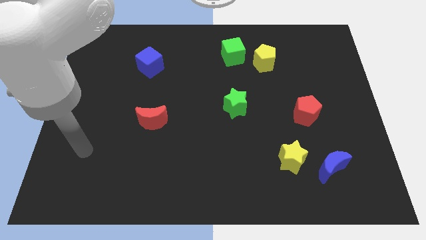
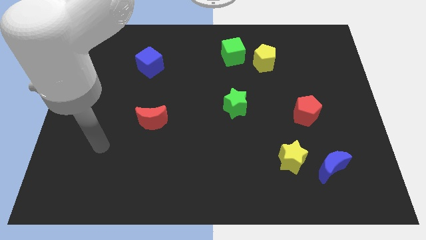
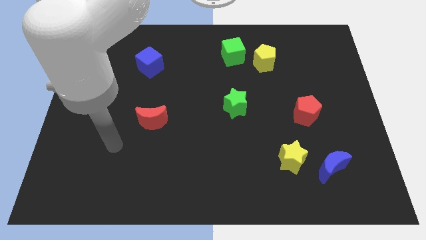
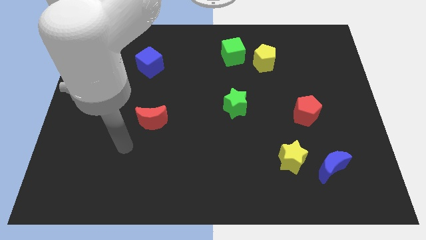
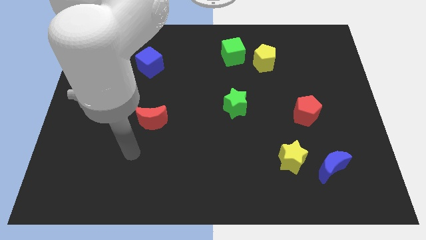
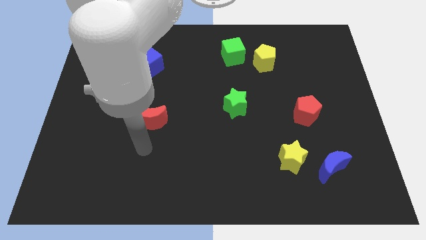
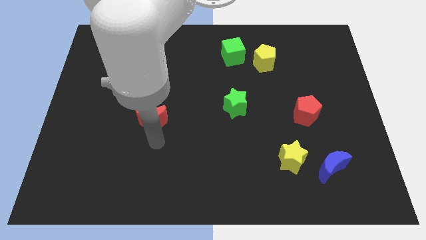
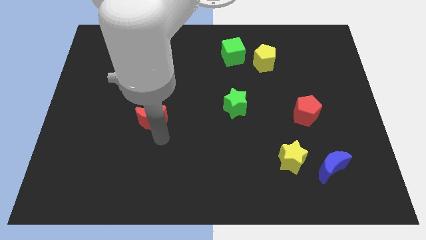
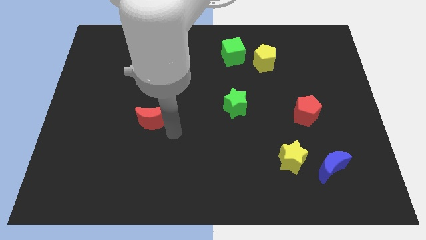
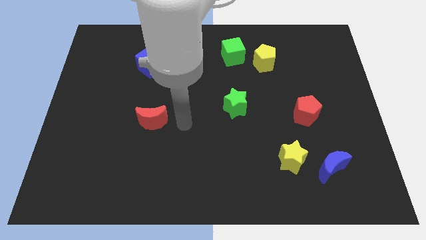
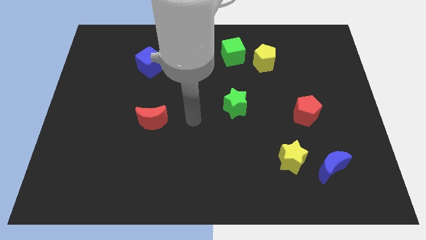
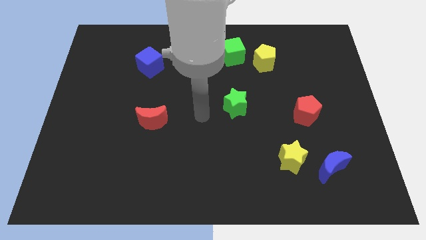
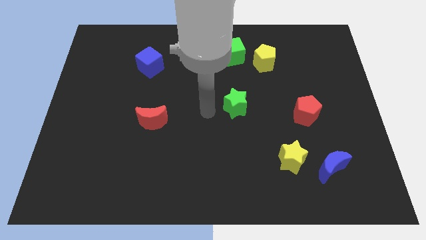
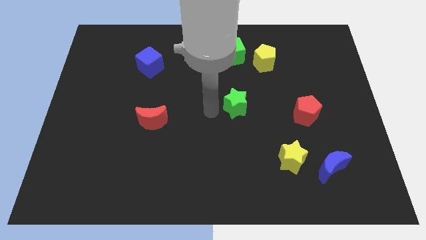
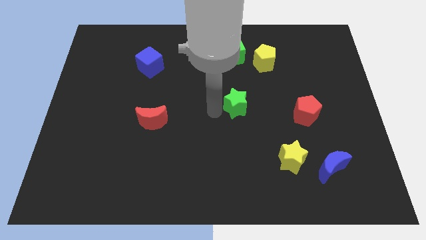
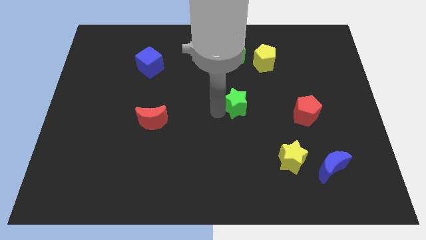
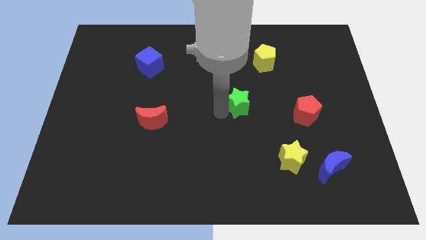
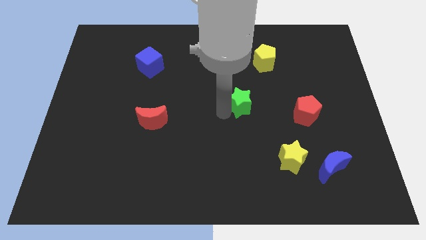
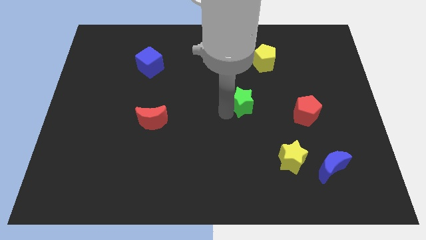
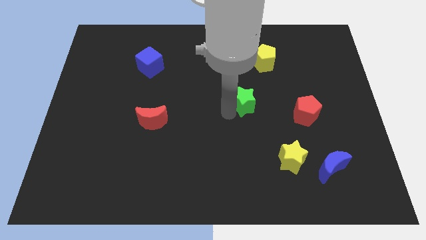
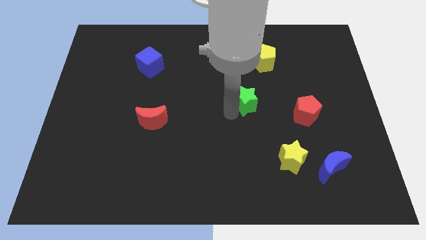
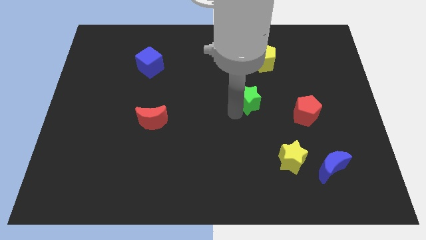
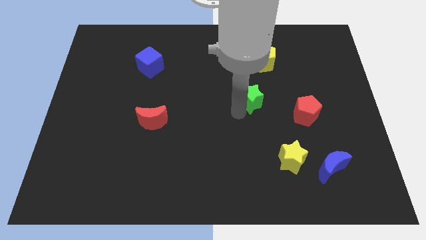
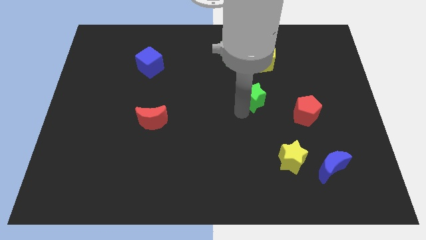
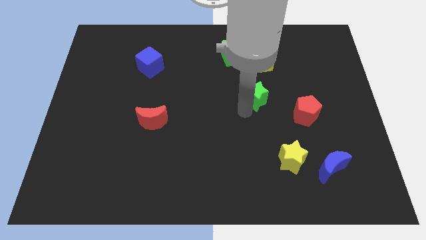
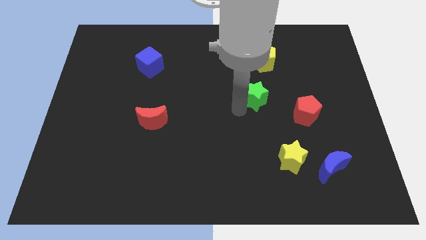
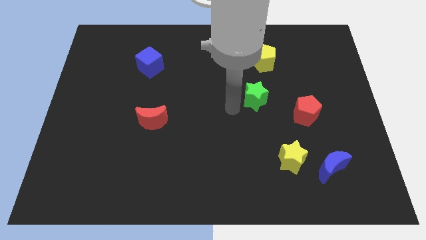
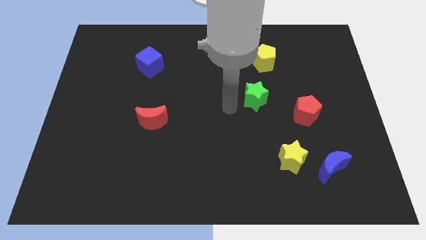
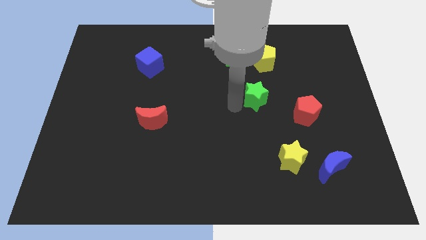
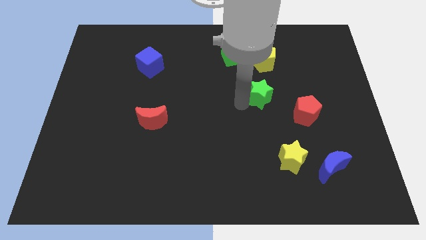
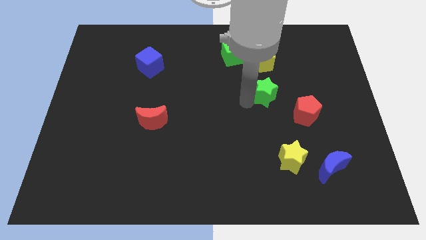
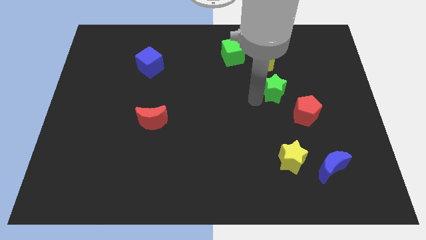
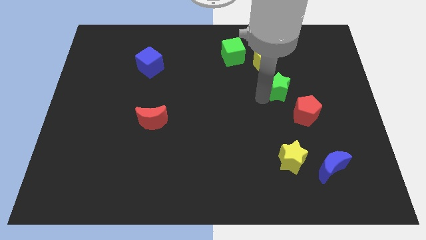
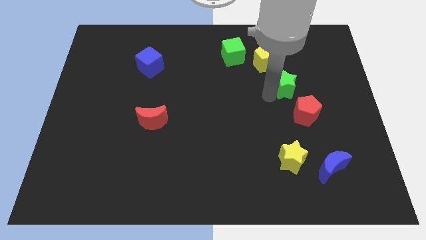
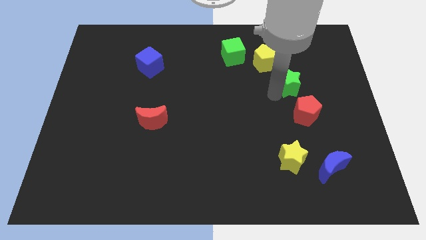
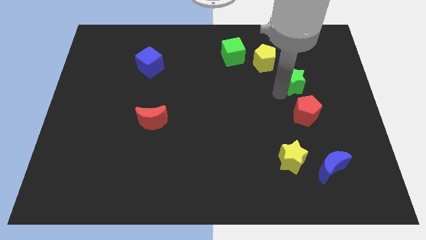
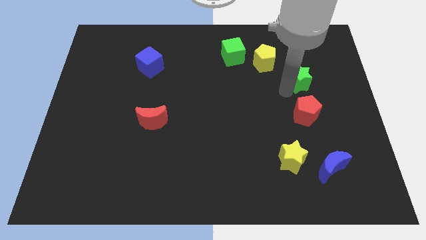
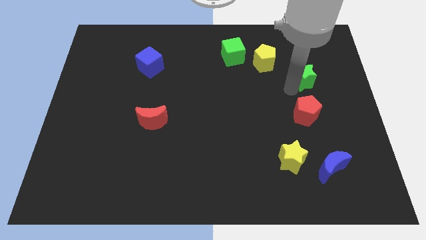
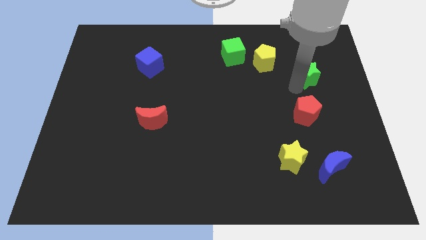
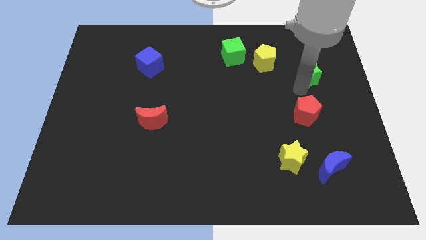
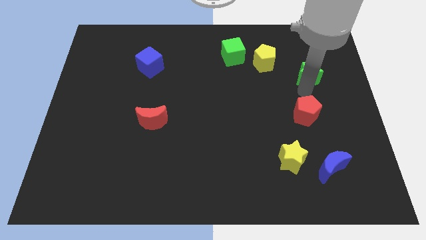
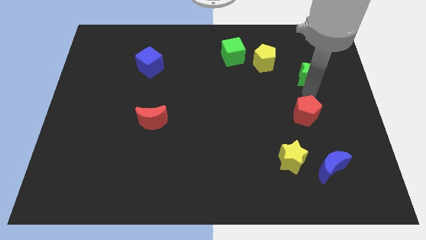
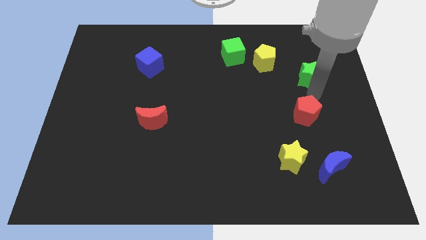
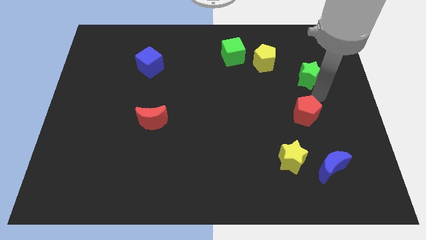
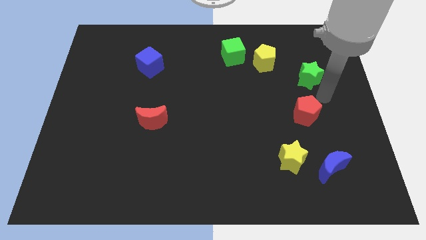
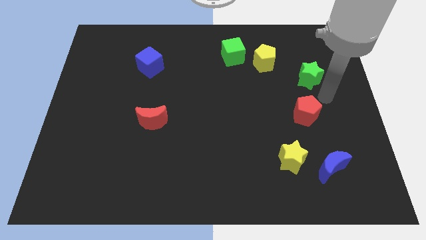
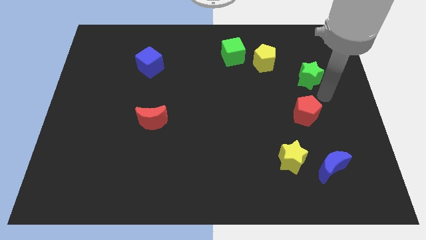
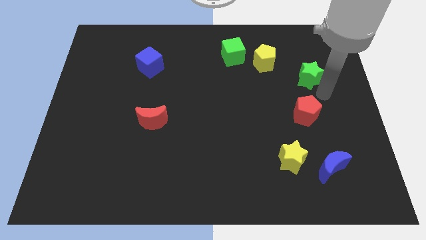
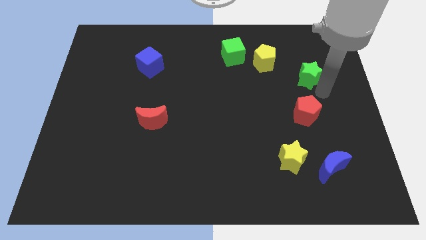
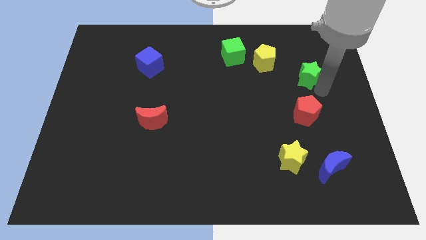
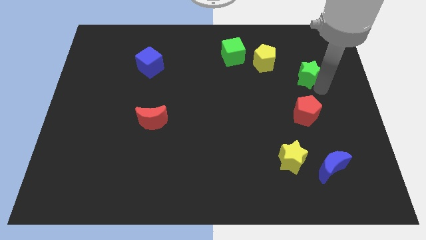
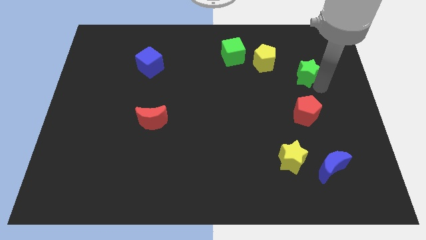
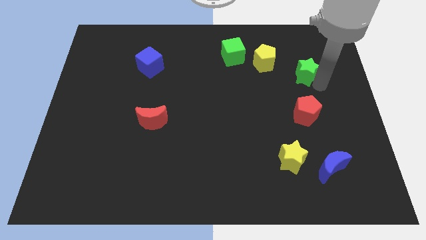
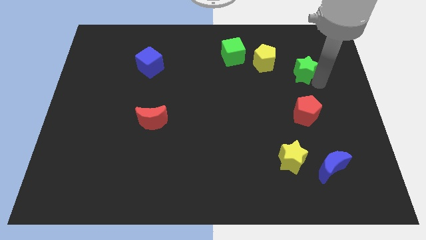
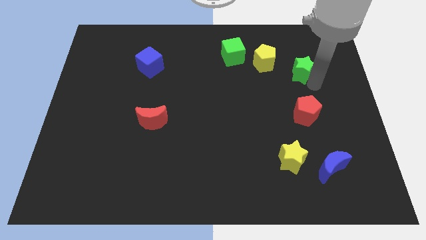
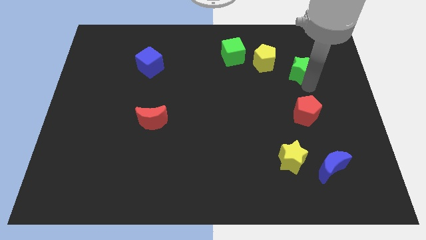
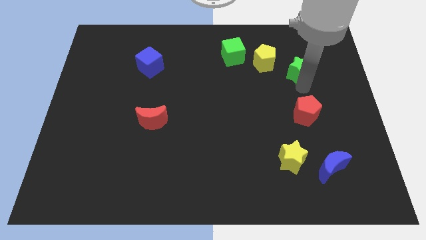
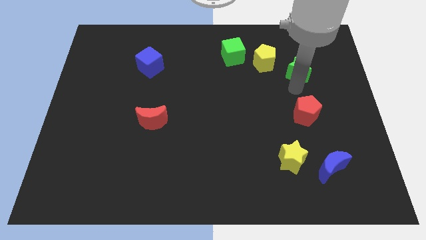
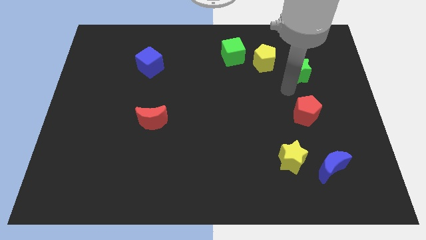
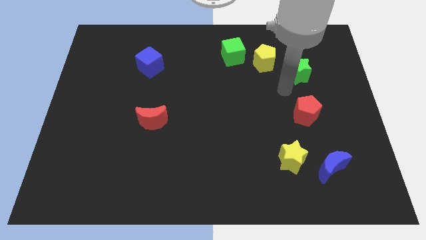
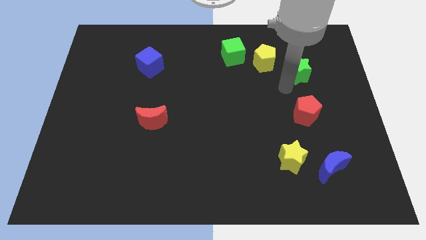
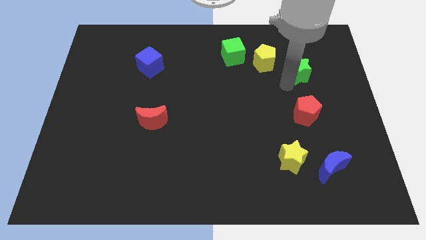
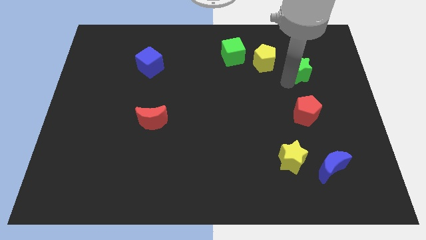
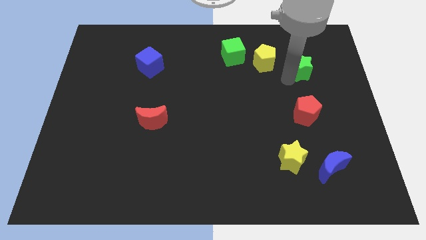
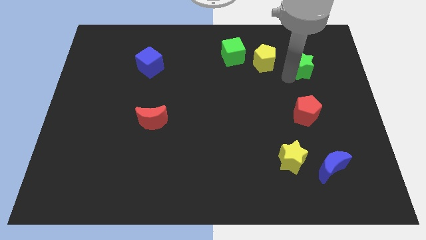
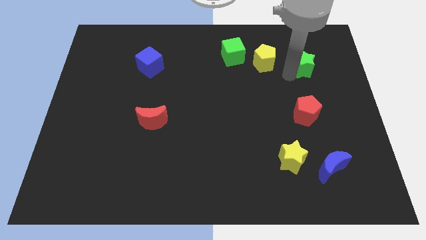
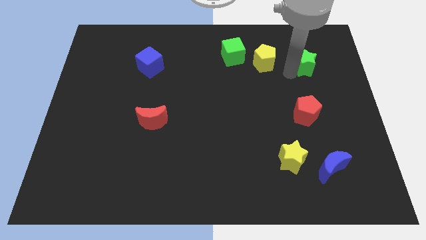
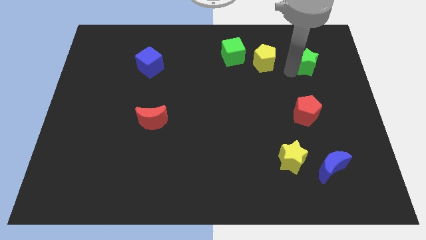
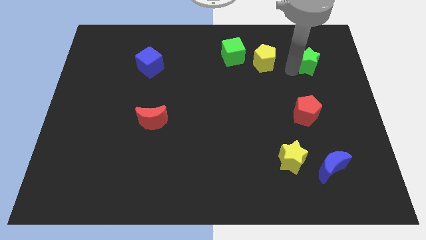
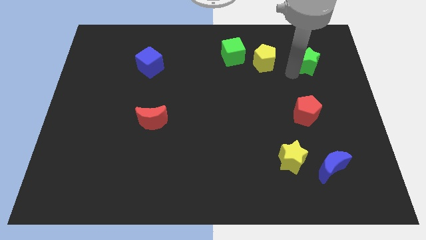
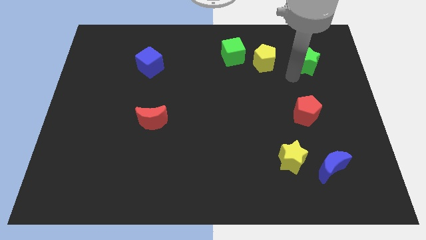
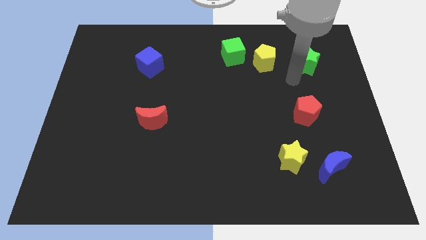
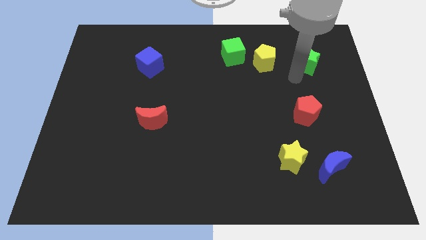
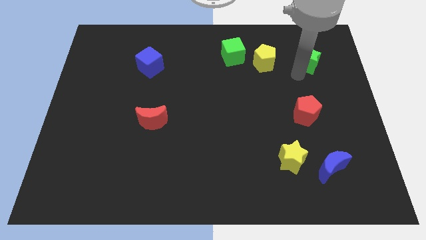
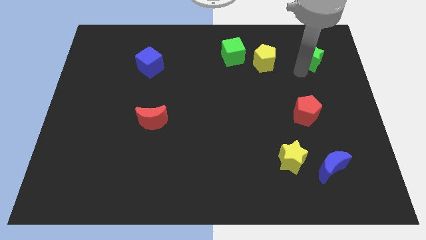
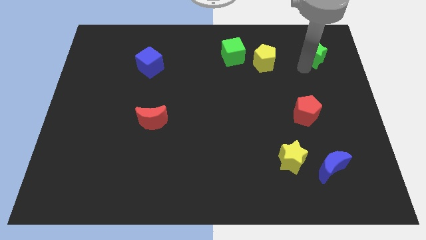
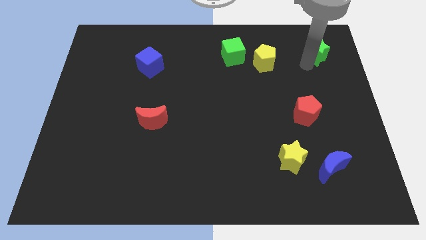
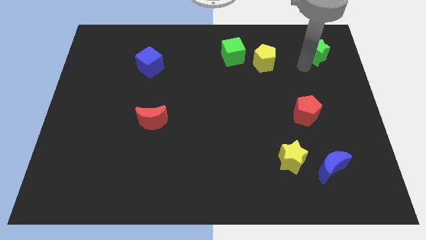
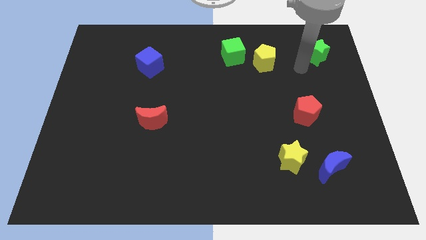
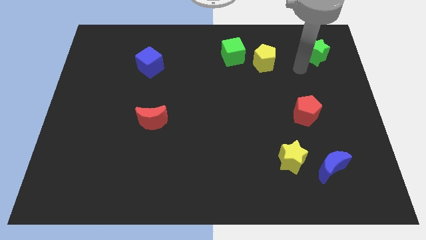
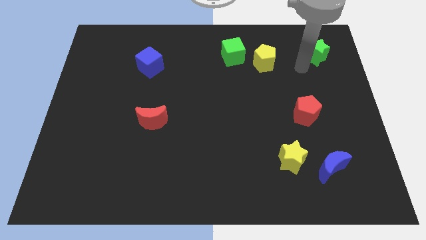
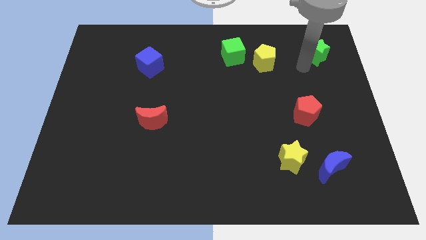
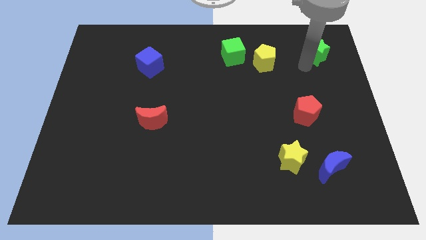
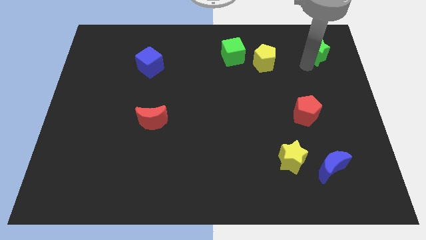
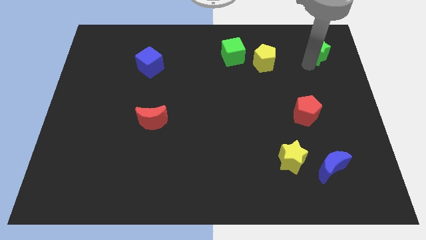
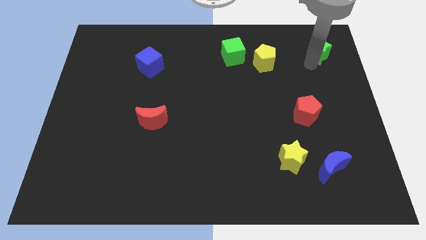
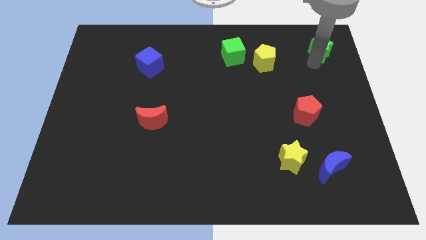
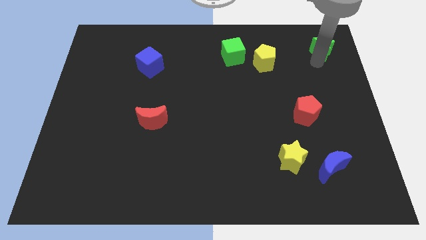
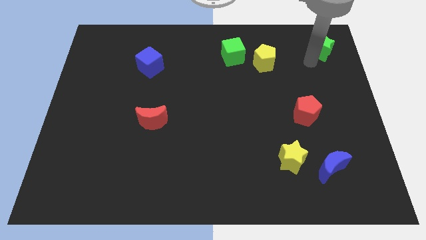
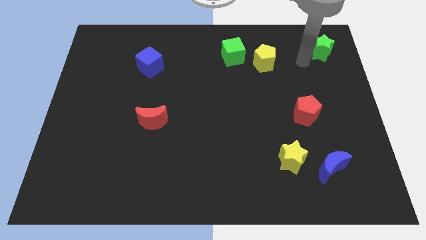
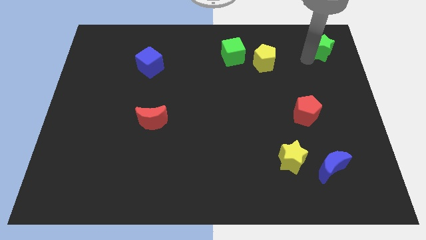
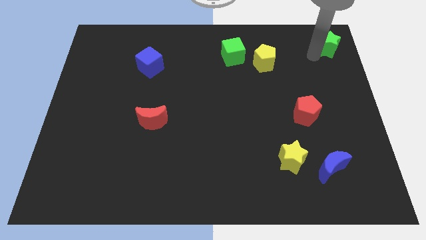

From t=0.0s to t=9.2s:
push the green star to the top right
